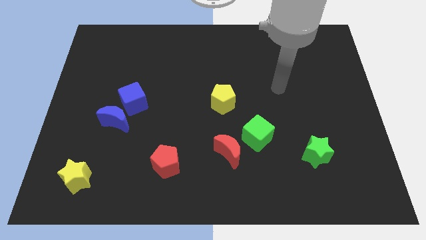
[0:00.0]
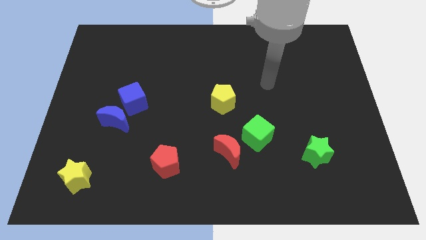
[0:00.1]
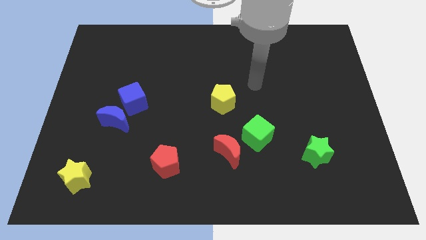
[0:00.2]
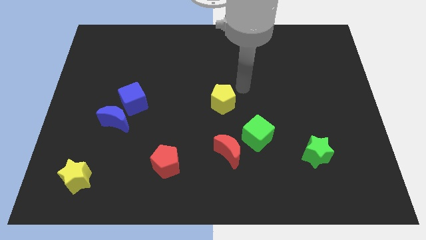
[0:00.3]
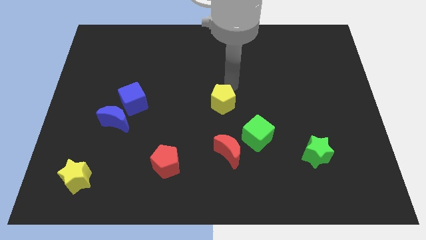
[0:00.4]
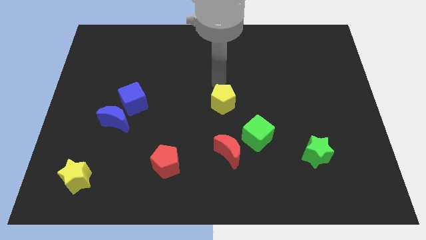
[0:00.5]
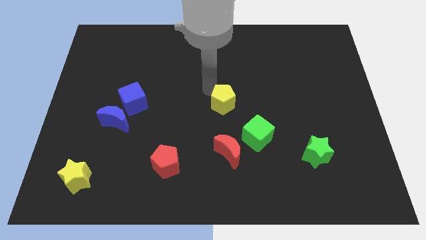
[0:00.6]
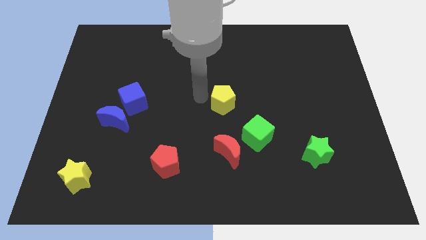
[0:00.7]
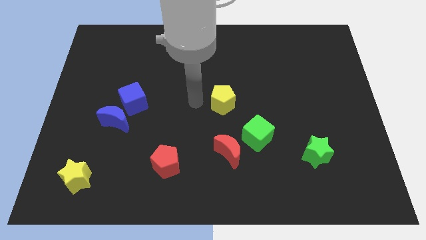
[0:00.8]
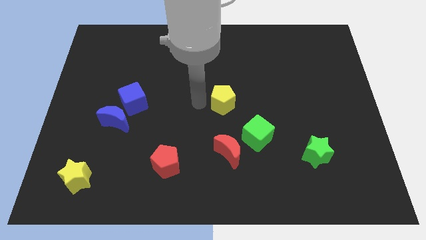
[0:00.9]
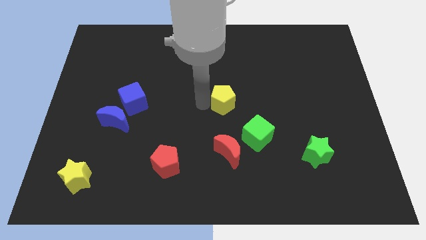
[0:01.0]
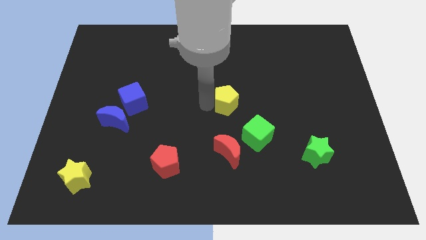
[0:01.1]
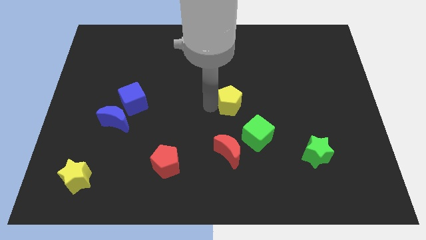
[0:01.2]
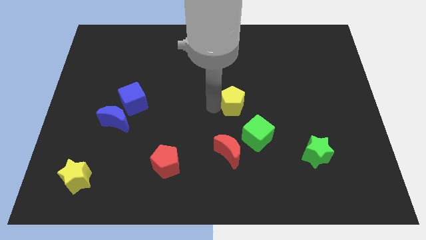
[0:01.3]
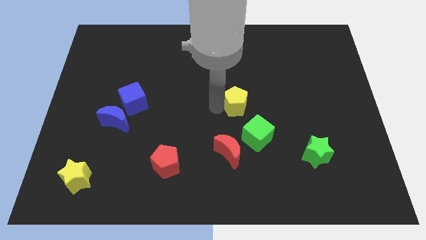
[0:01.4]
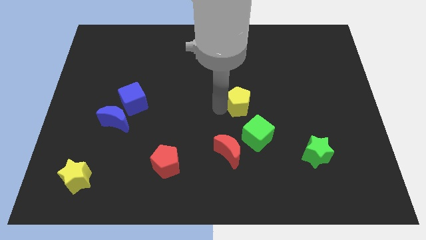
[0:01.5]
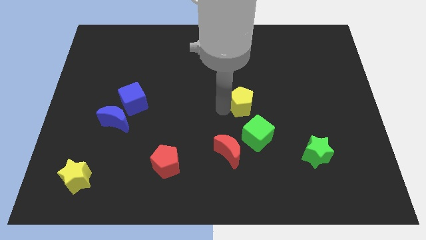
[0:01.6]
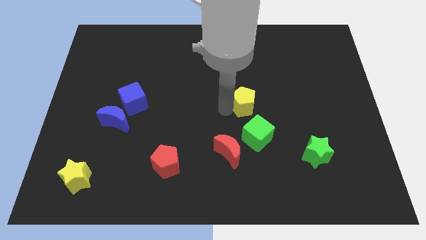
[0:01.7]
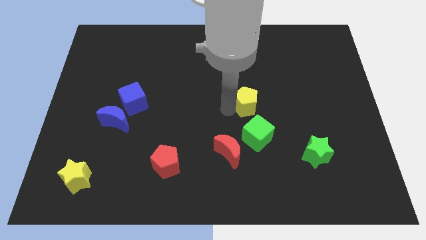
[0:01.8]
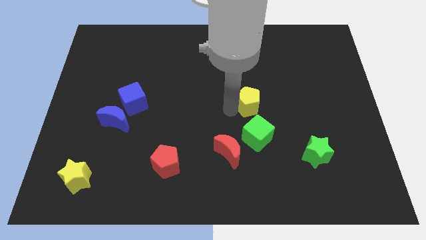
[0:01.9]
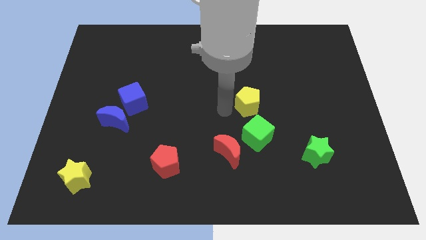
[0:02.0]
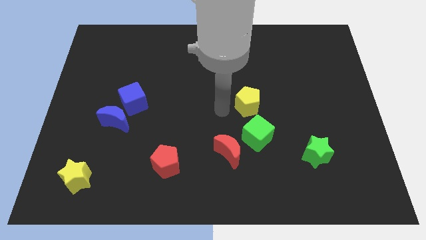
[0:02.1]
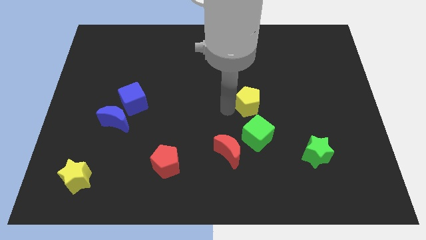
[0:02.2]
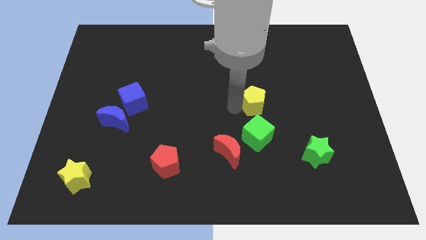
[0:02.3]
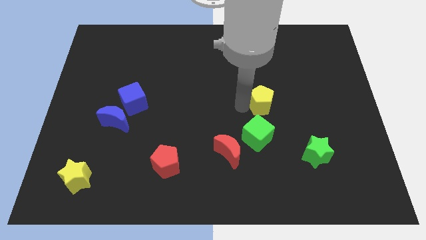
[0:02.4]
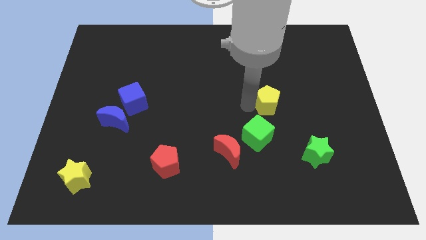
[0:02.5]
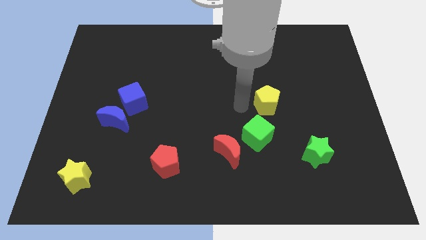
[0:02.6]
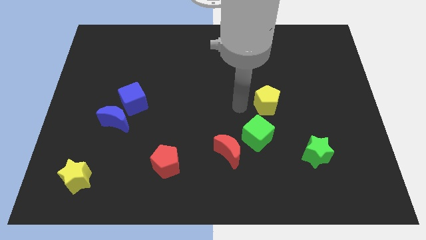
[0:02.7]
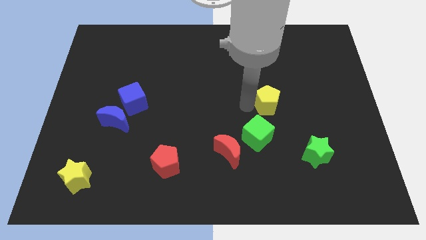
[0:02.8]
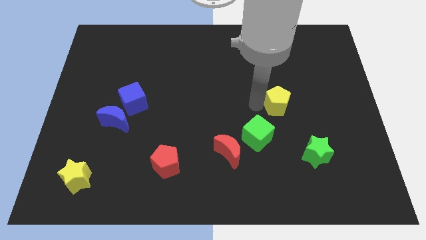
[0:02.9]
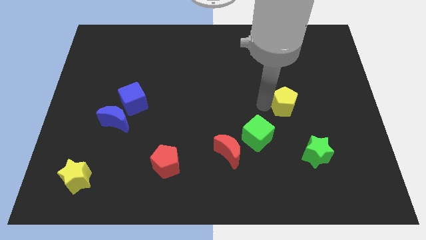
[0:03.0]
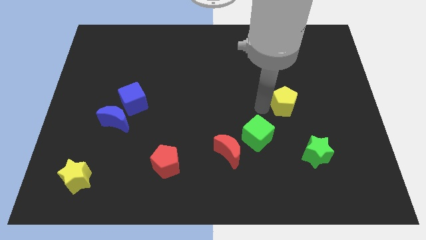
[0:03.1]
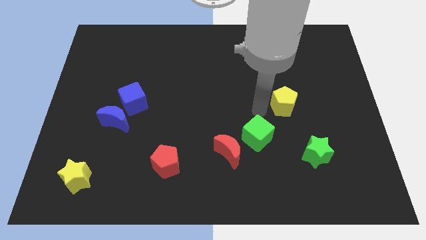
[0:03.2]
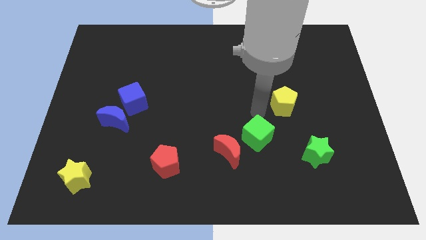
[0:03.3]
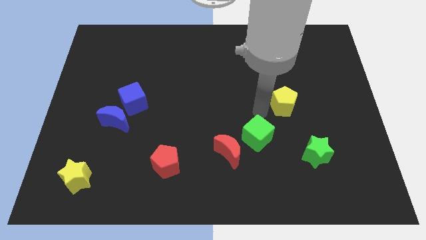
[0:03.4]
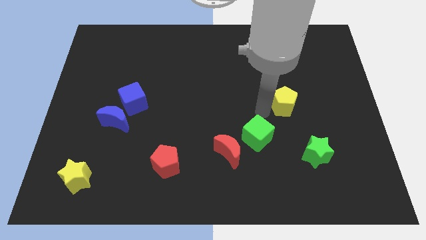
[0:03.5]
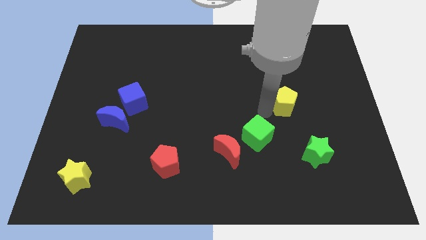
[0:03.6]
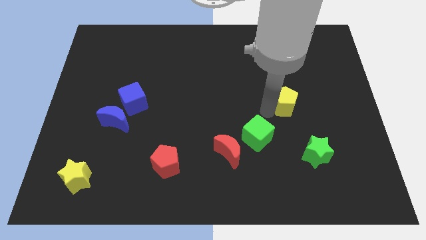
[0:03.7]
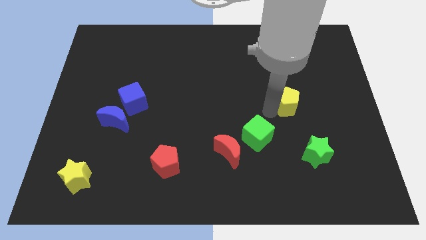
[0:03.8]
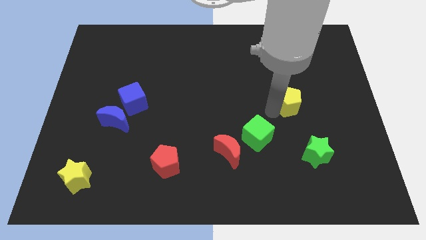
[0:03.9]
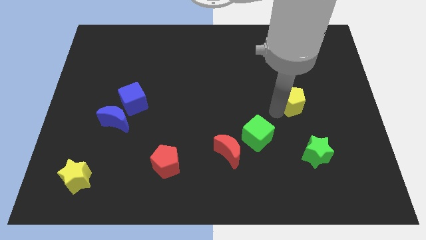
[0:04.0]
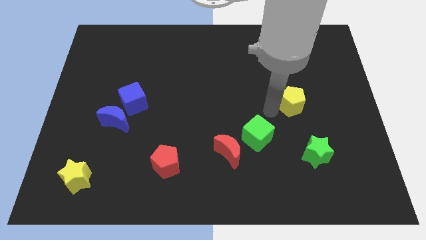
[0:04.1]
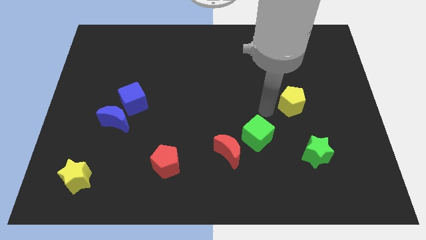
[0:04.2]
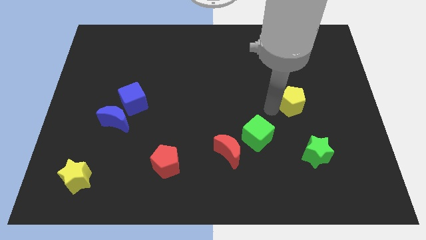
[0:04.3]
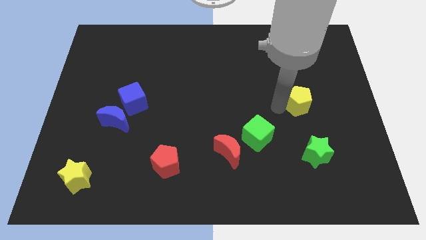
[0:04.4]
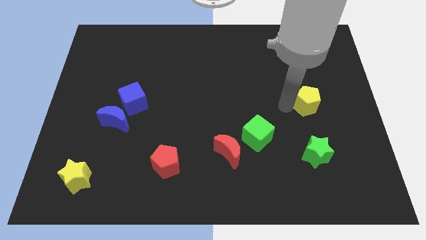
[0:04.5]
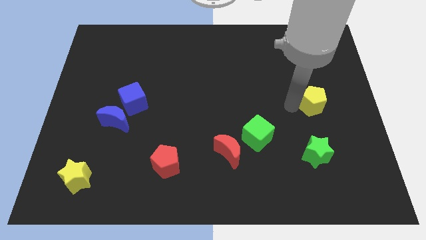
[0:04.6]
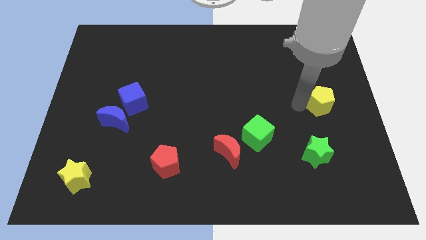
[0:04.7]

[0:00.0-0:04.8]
put the yellow pentagon to the center right

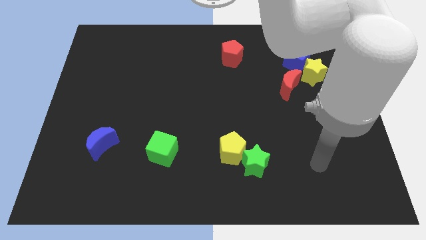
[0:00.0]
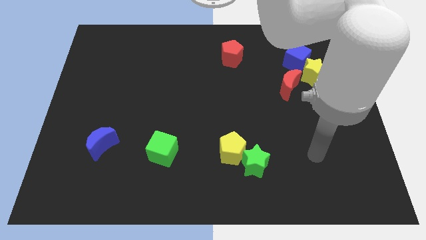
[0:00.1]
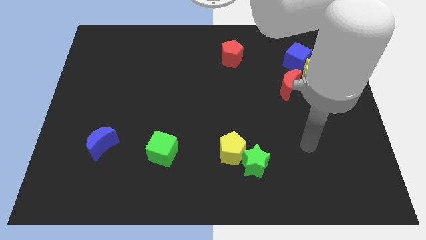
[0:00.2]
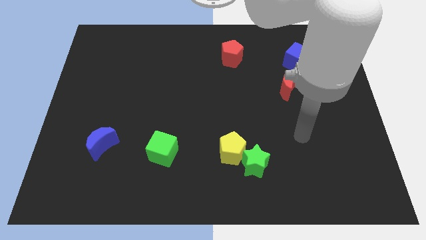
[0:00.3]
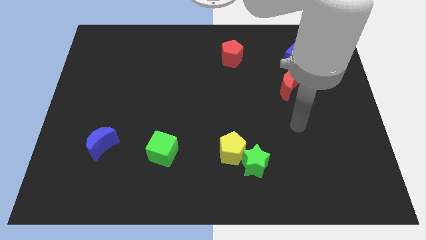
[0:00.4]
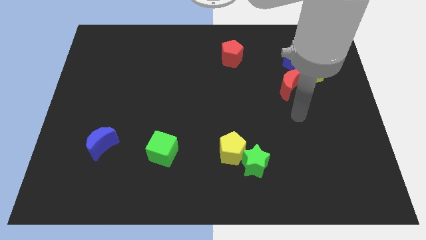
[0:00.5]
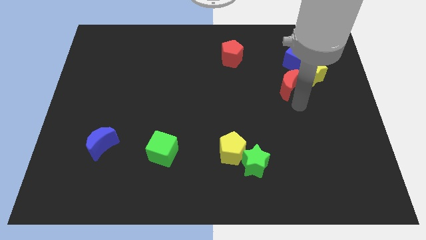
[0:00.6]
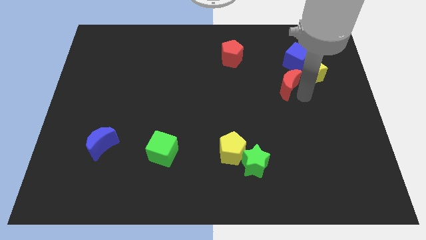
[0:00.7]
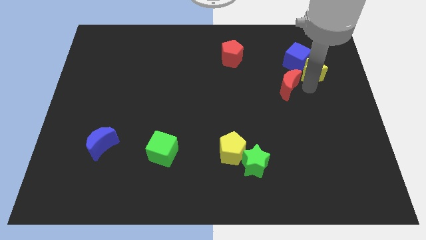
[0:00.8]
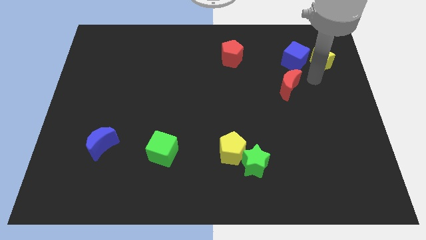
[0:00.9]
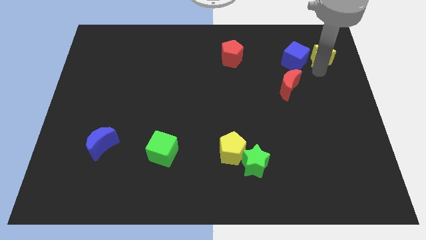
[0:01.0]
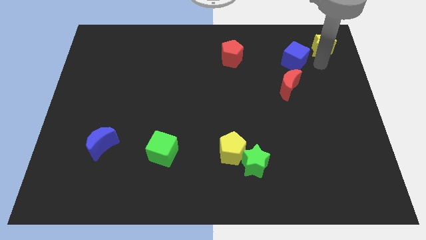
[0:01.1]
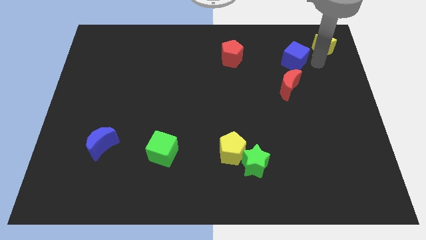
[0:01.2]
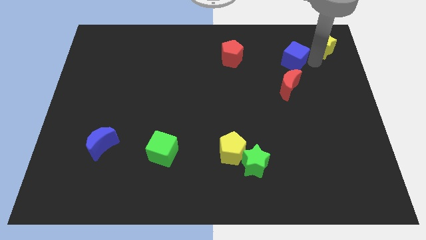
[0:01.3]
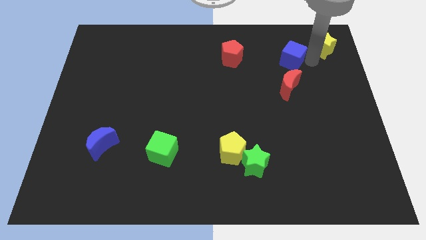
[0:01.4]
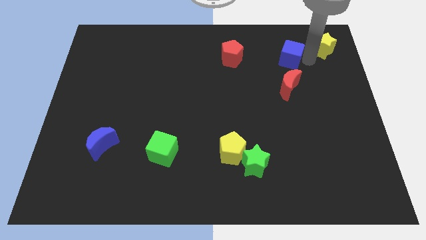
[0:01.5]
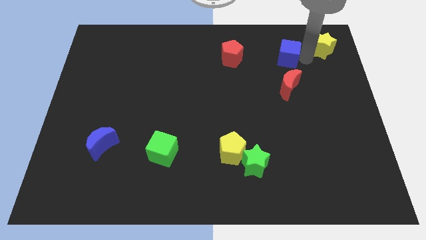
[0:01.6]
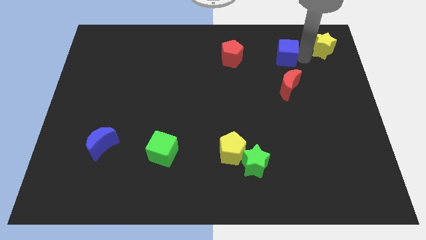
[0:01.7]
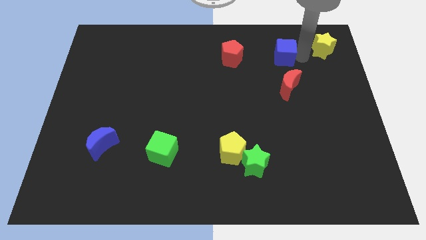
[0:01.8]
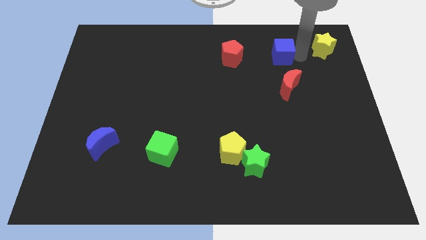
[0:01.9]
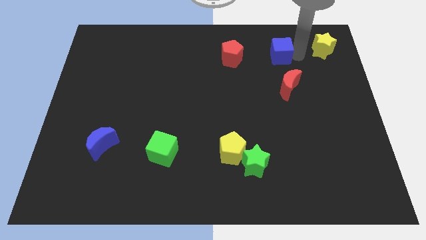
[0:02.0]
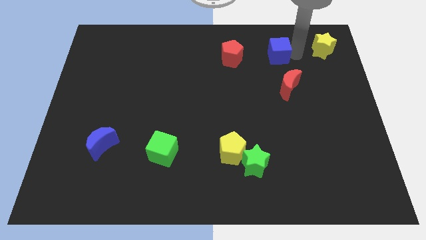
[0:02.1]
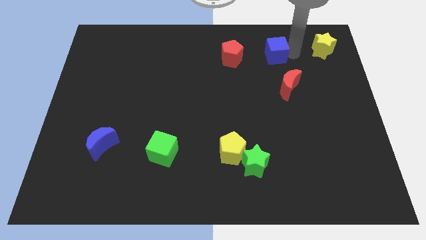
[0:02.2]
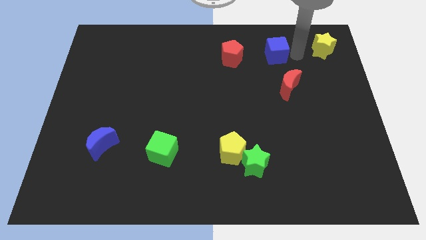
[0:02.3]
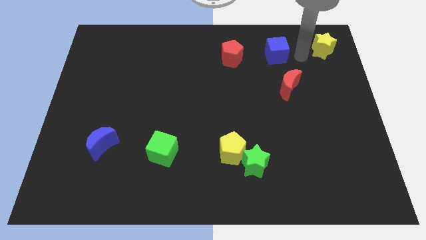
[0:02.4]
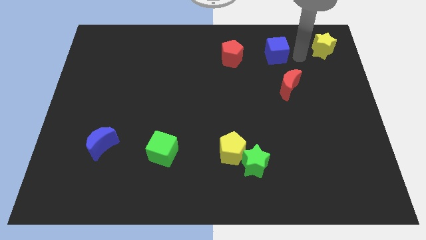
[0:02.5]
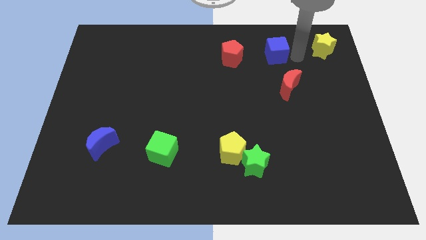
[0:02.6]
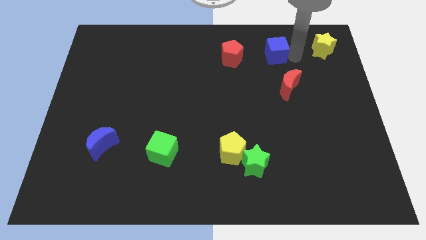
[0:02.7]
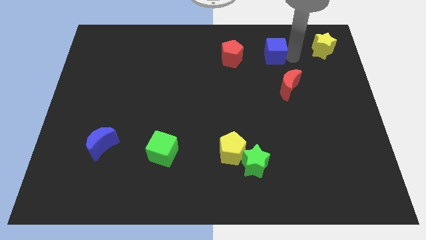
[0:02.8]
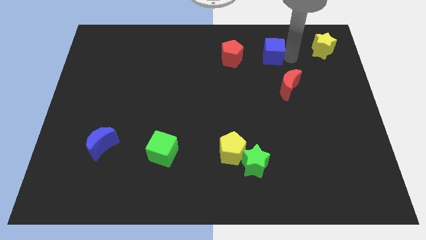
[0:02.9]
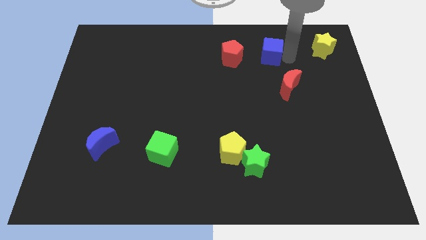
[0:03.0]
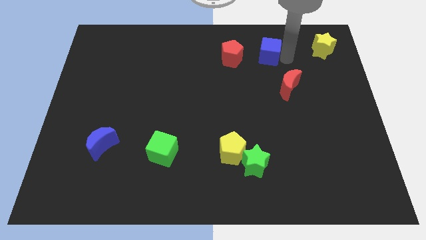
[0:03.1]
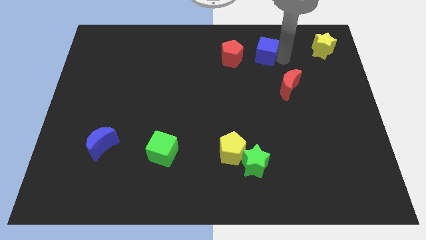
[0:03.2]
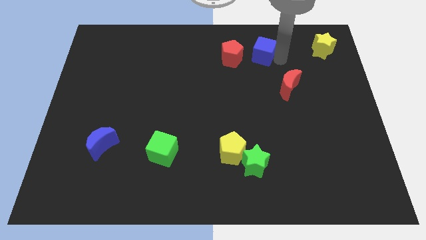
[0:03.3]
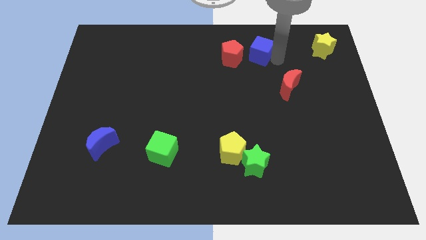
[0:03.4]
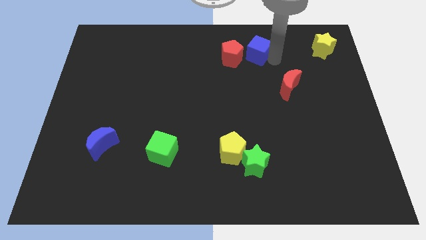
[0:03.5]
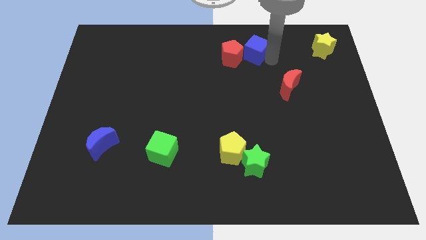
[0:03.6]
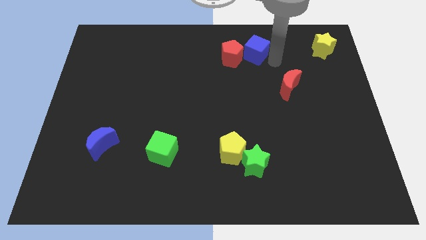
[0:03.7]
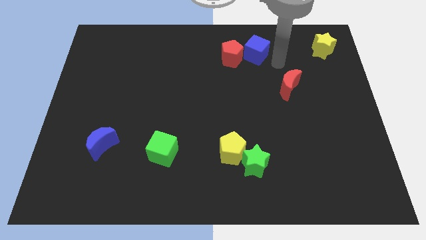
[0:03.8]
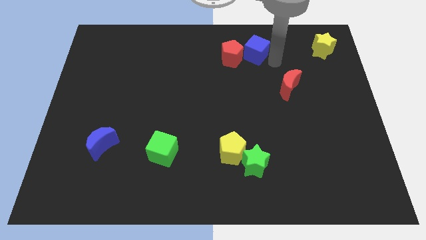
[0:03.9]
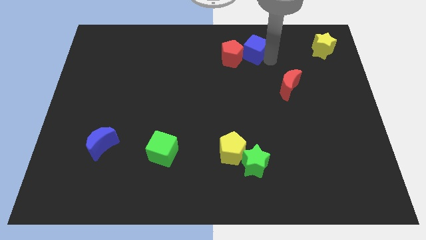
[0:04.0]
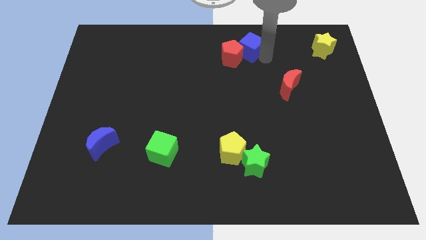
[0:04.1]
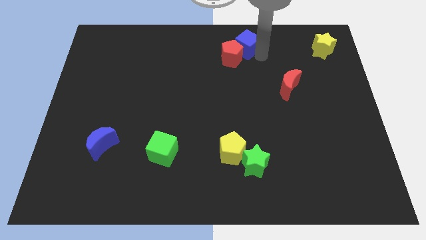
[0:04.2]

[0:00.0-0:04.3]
slide the blue cube to the top
